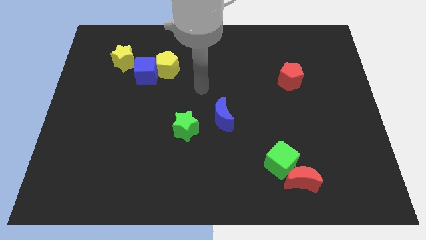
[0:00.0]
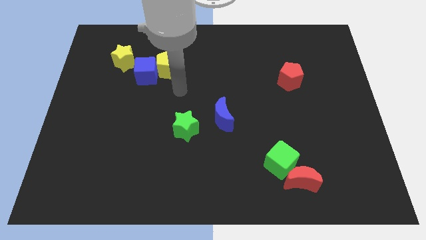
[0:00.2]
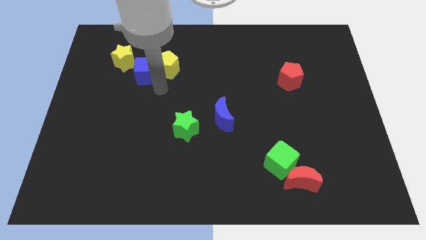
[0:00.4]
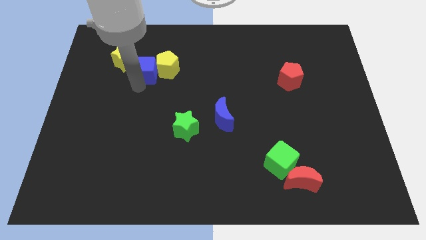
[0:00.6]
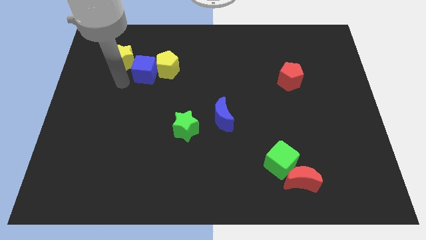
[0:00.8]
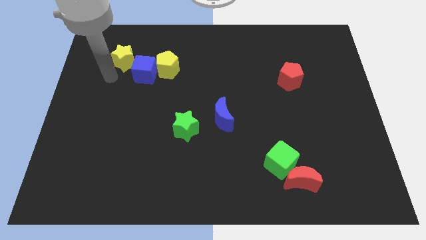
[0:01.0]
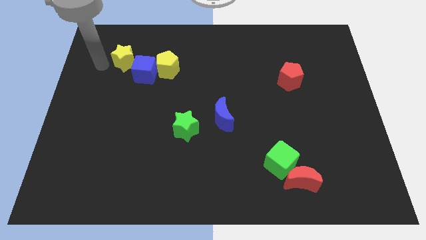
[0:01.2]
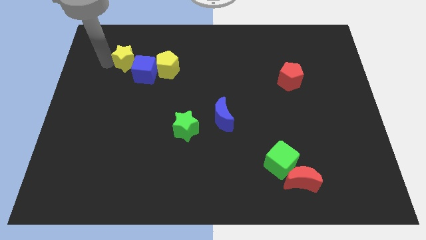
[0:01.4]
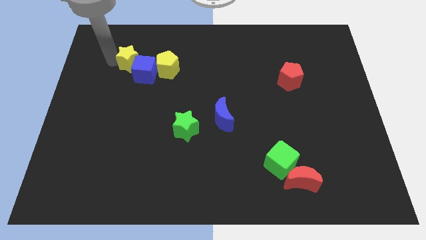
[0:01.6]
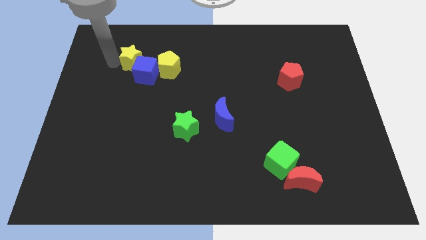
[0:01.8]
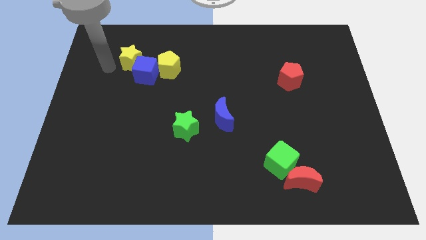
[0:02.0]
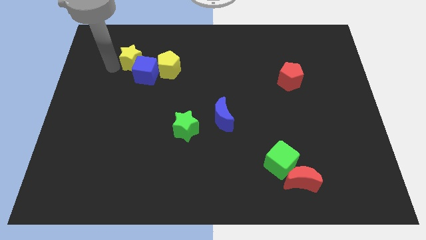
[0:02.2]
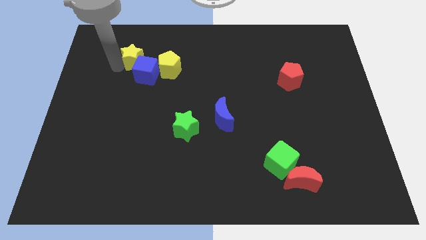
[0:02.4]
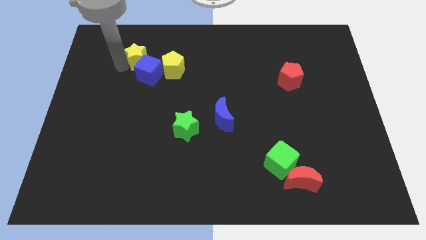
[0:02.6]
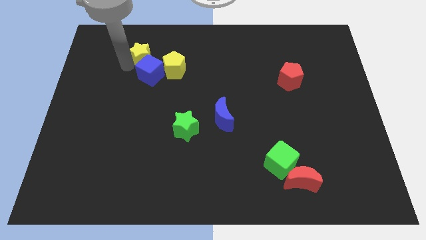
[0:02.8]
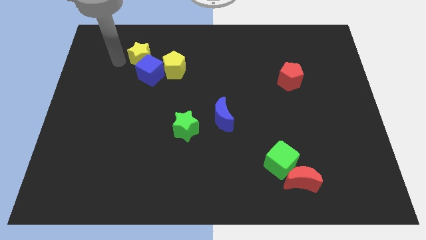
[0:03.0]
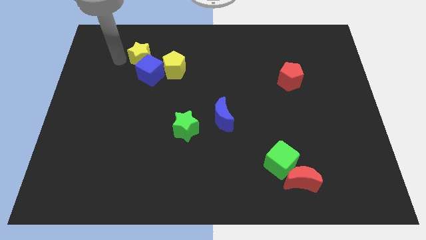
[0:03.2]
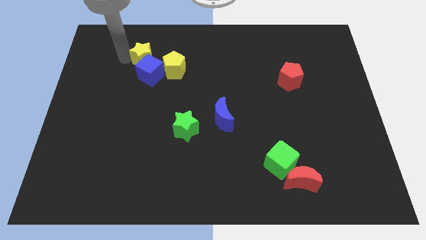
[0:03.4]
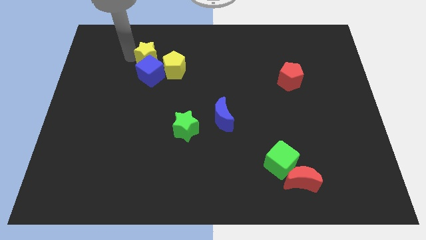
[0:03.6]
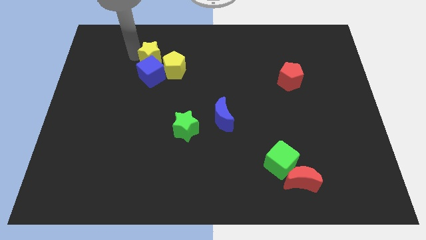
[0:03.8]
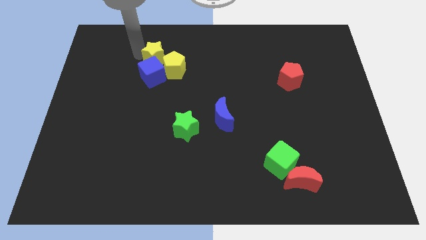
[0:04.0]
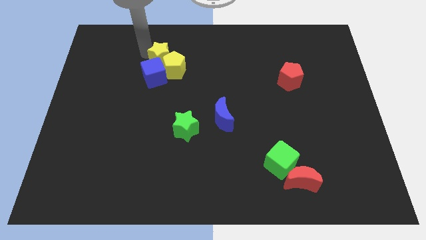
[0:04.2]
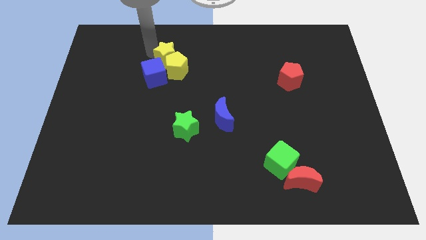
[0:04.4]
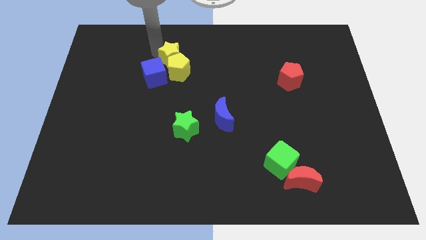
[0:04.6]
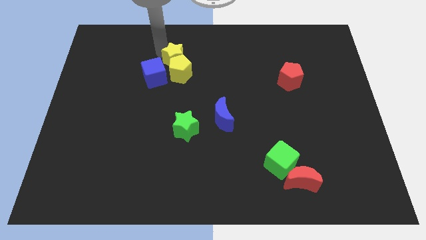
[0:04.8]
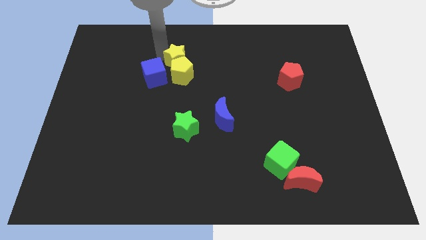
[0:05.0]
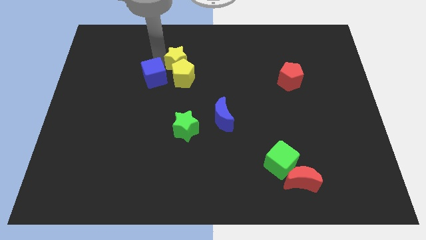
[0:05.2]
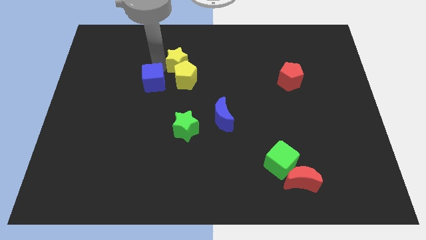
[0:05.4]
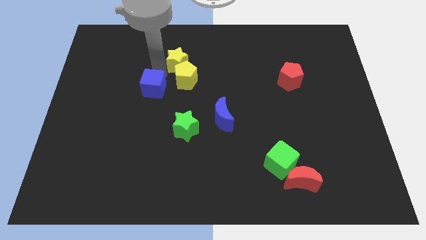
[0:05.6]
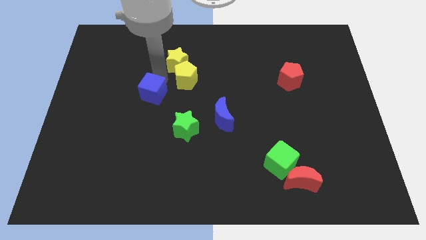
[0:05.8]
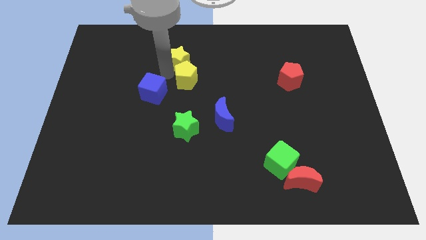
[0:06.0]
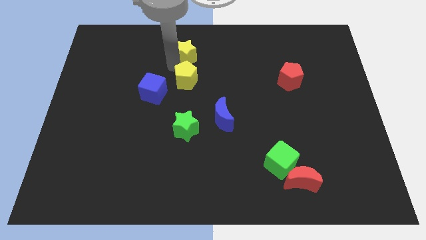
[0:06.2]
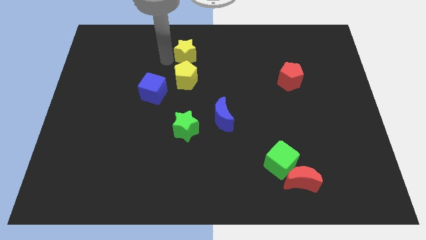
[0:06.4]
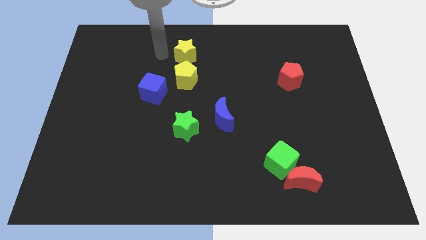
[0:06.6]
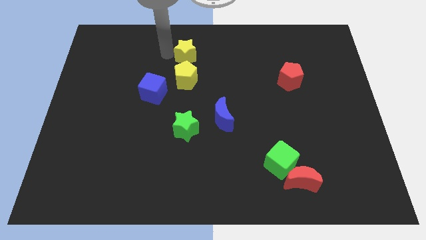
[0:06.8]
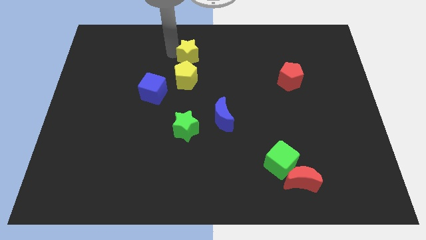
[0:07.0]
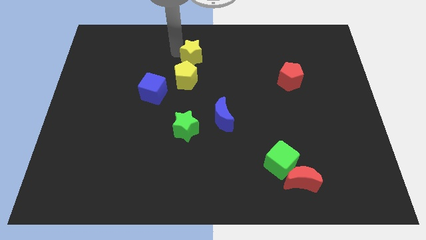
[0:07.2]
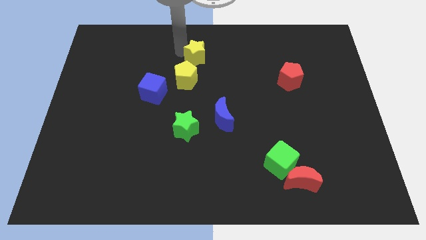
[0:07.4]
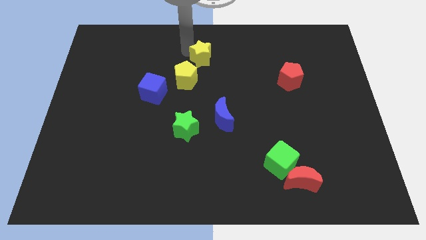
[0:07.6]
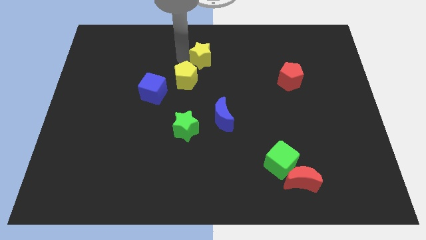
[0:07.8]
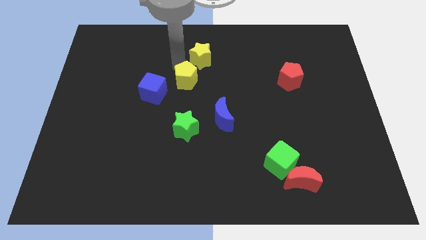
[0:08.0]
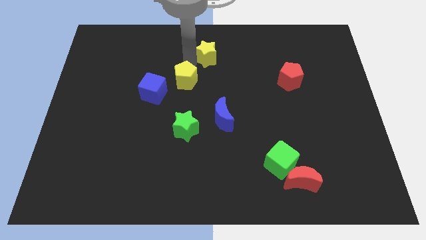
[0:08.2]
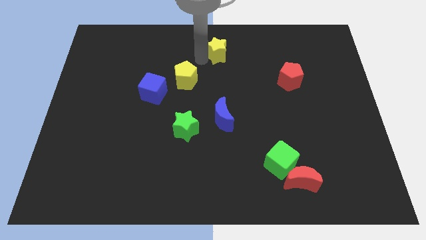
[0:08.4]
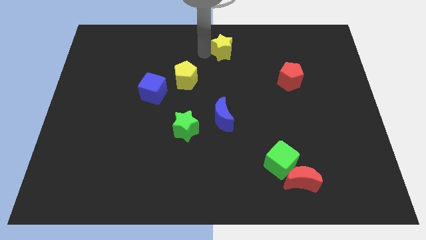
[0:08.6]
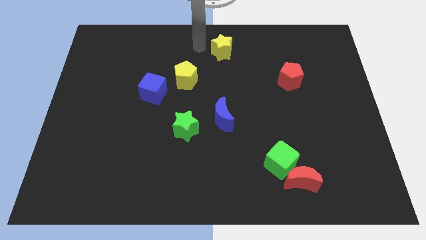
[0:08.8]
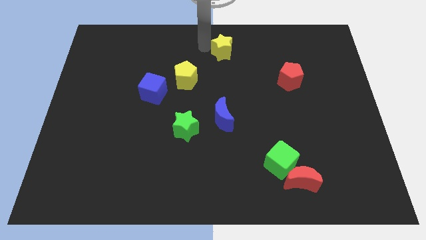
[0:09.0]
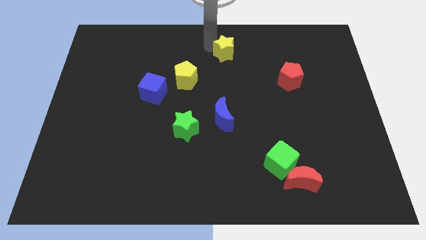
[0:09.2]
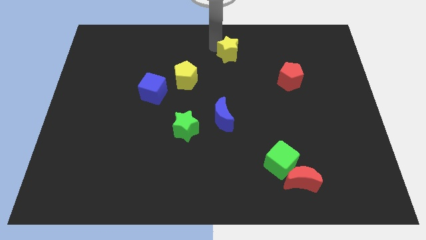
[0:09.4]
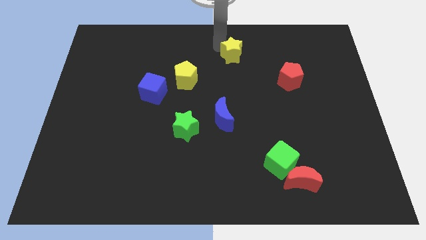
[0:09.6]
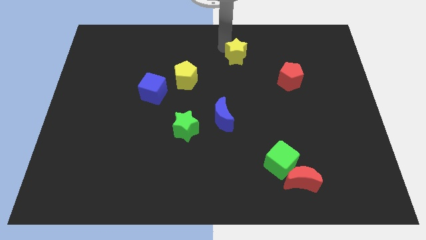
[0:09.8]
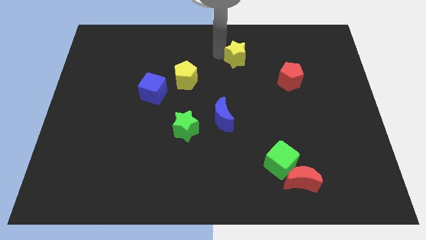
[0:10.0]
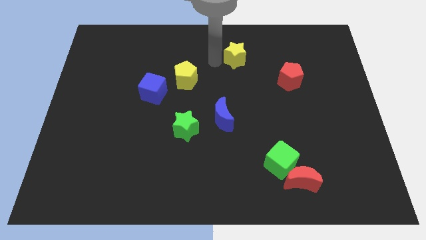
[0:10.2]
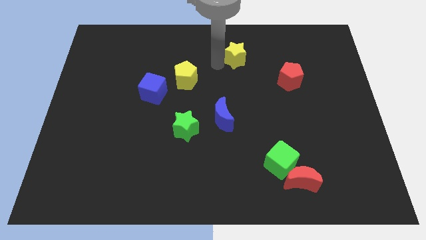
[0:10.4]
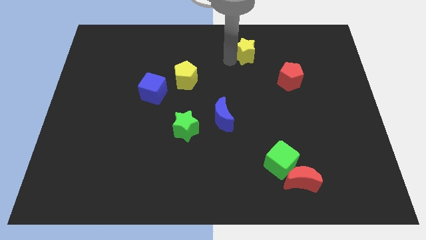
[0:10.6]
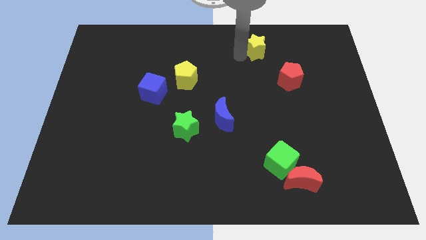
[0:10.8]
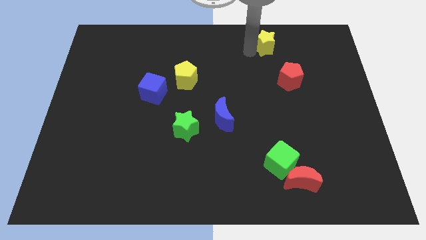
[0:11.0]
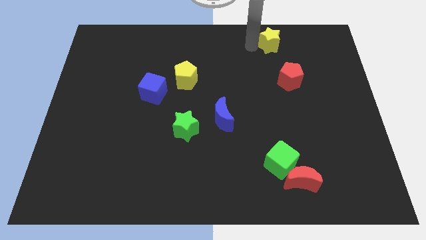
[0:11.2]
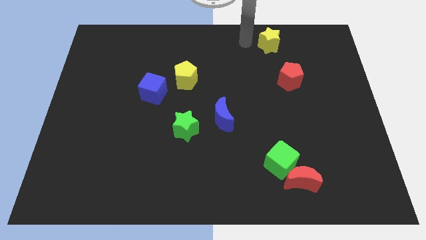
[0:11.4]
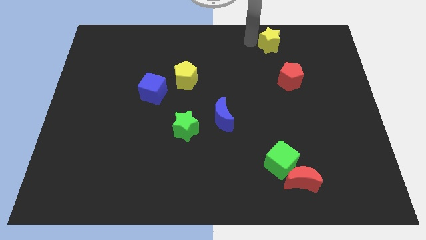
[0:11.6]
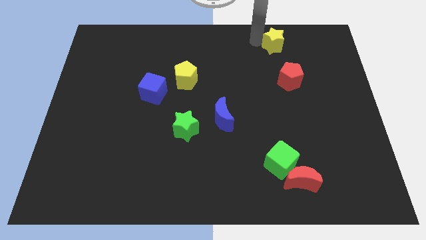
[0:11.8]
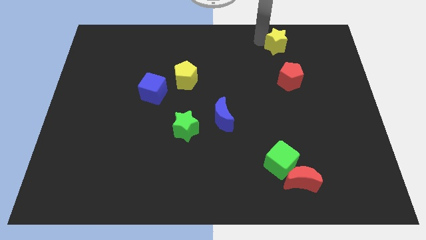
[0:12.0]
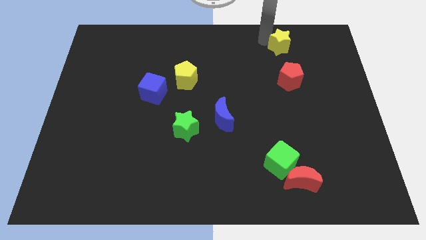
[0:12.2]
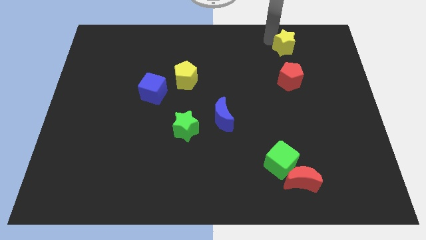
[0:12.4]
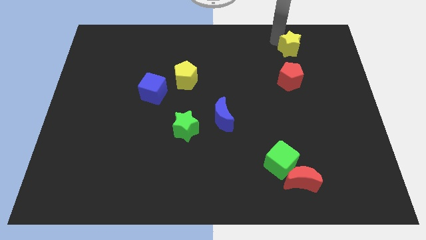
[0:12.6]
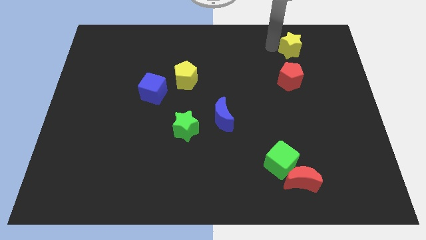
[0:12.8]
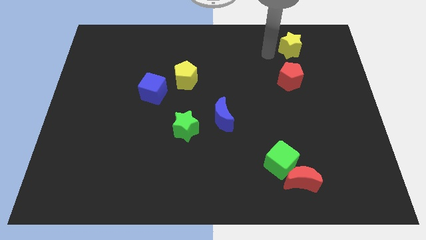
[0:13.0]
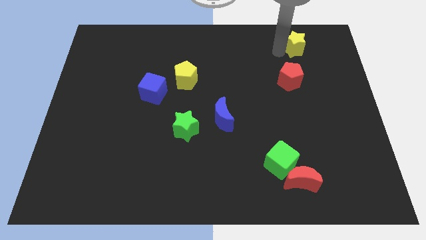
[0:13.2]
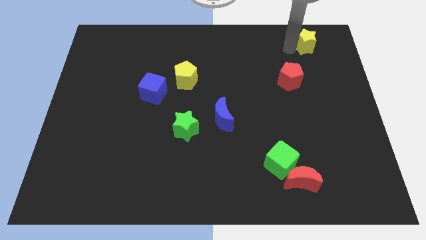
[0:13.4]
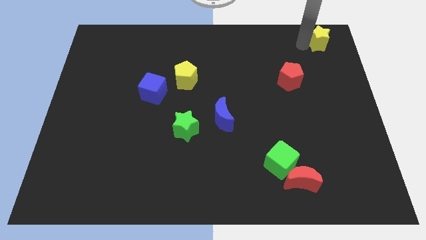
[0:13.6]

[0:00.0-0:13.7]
push the yellow star to the top right
